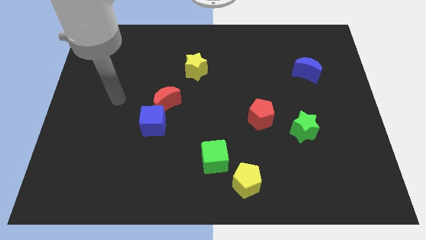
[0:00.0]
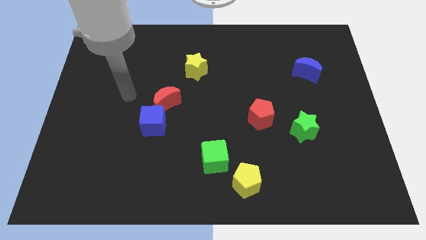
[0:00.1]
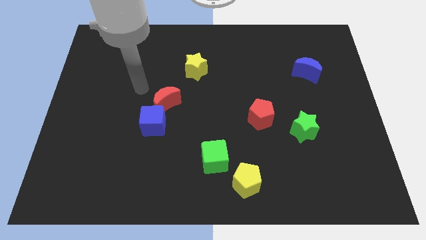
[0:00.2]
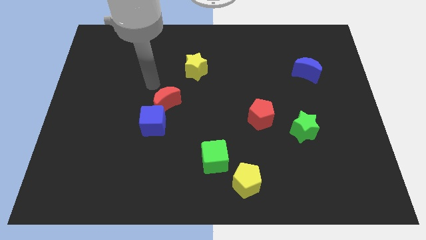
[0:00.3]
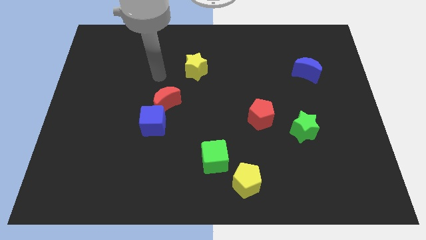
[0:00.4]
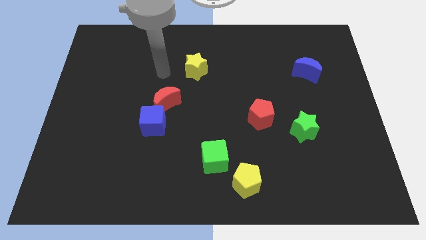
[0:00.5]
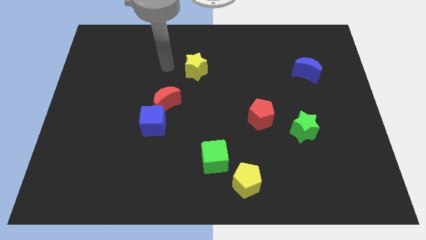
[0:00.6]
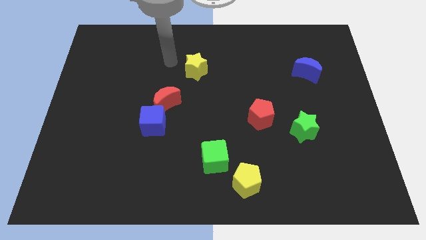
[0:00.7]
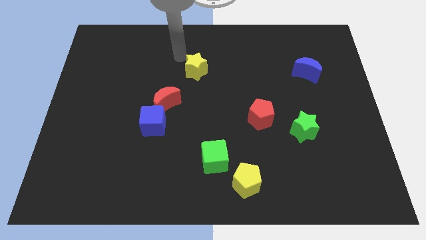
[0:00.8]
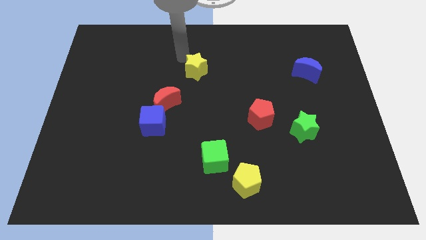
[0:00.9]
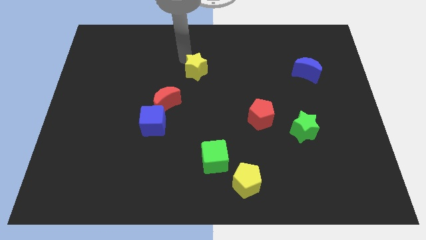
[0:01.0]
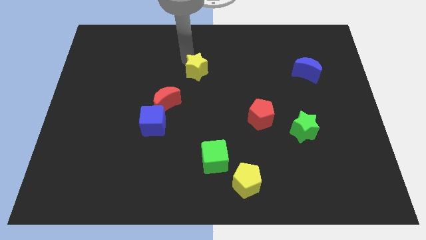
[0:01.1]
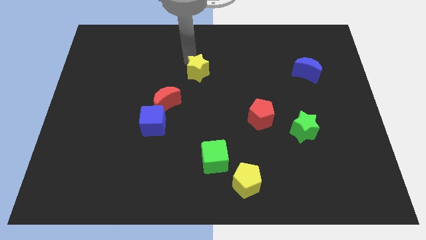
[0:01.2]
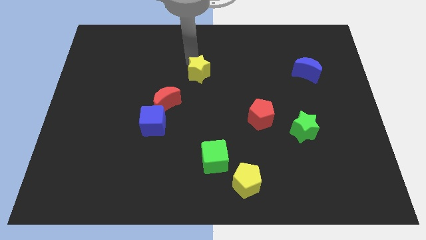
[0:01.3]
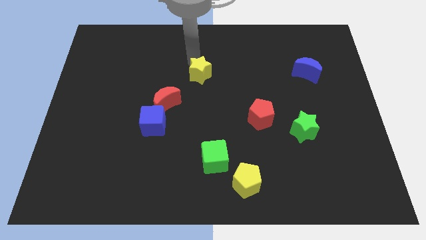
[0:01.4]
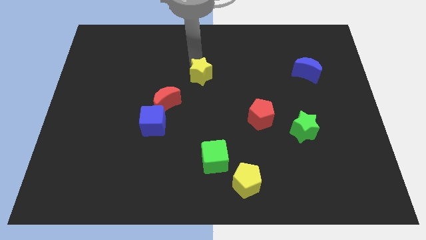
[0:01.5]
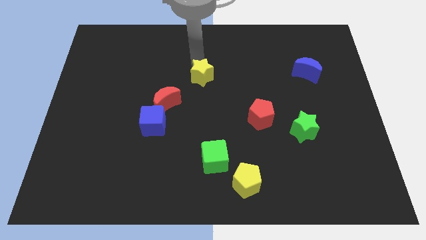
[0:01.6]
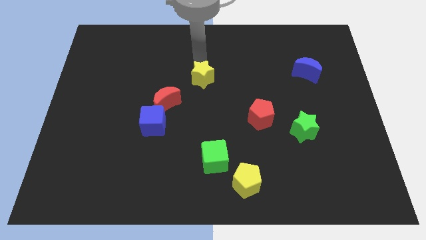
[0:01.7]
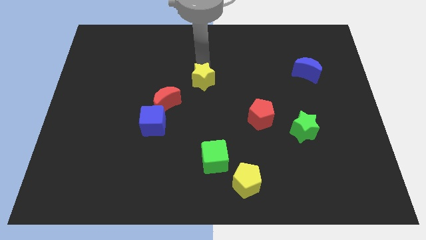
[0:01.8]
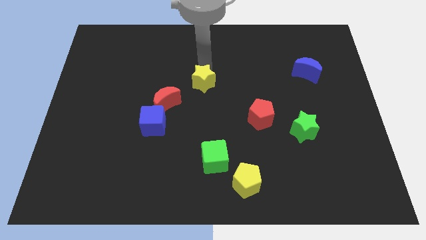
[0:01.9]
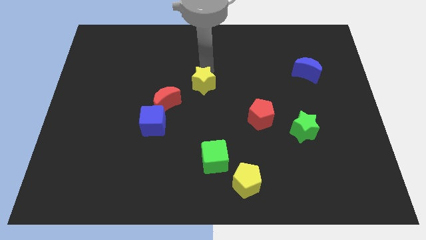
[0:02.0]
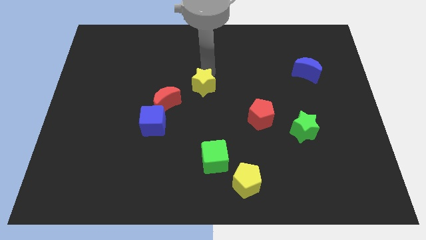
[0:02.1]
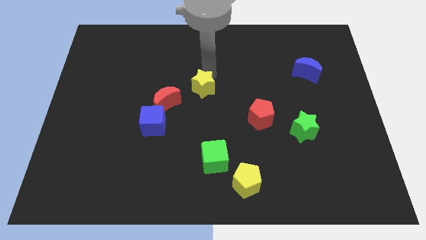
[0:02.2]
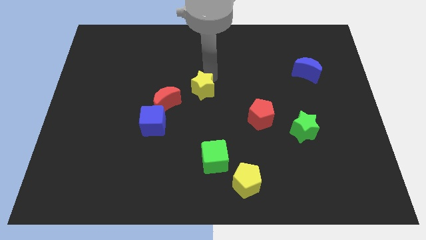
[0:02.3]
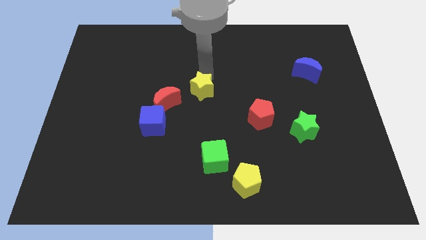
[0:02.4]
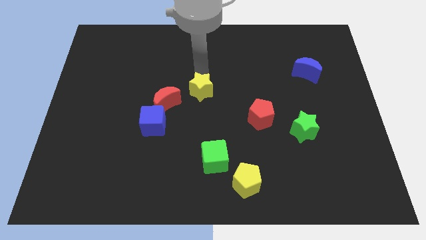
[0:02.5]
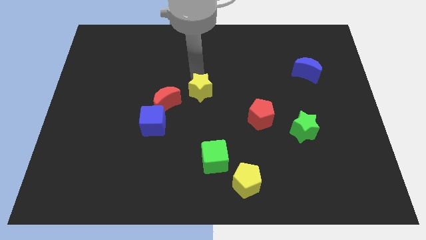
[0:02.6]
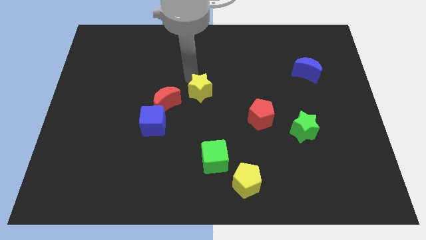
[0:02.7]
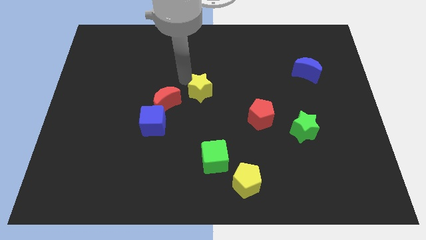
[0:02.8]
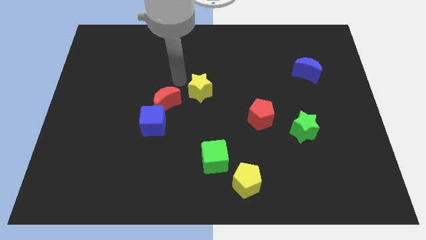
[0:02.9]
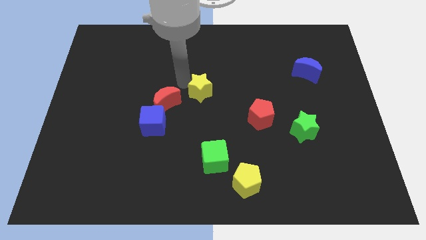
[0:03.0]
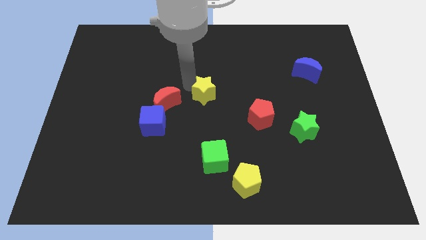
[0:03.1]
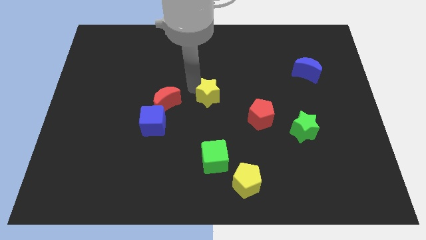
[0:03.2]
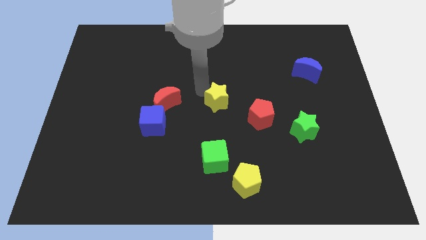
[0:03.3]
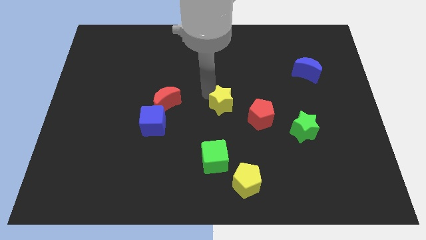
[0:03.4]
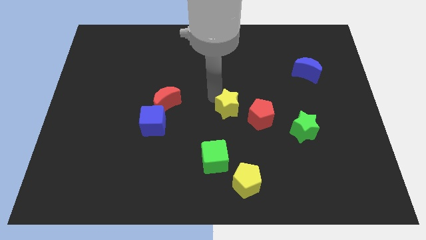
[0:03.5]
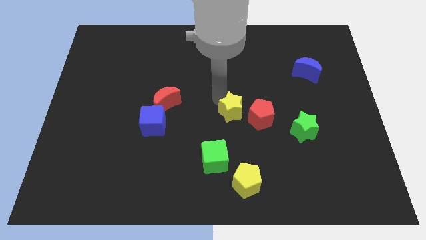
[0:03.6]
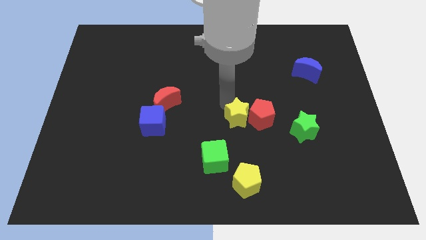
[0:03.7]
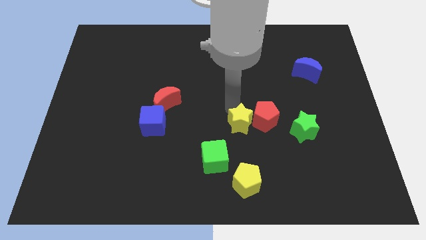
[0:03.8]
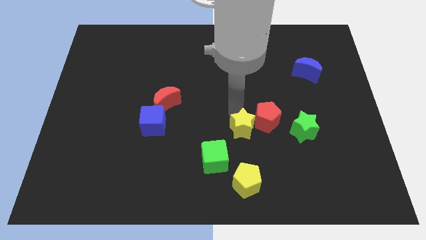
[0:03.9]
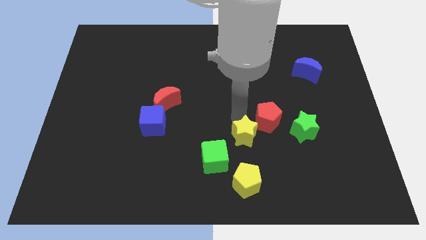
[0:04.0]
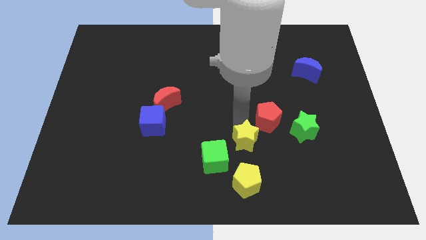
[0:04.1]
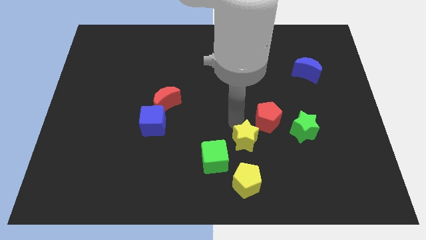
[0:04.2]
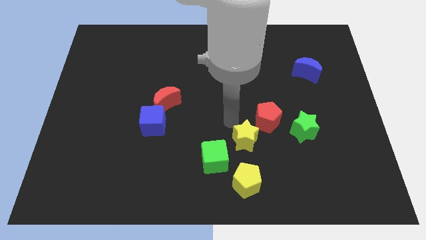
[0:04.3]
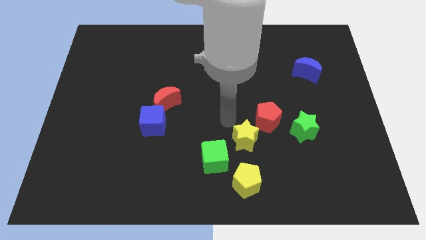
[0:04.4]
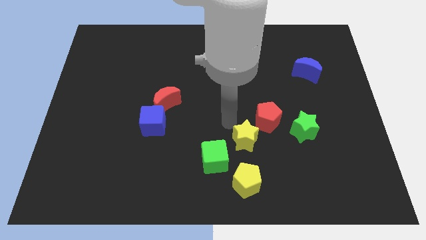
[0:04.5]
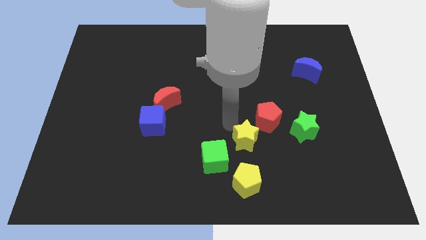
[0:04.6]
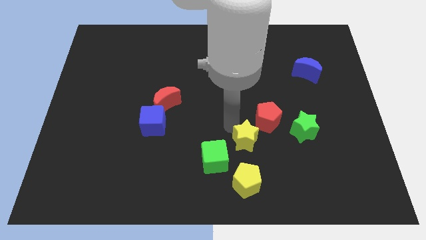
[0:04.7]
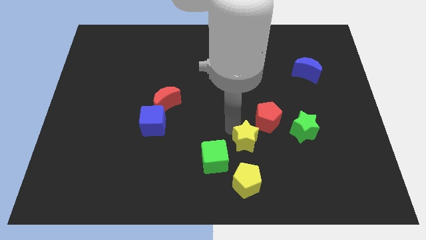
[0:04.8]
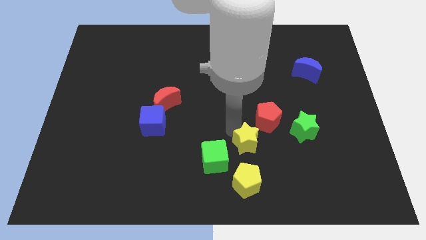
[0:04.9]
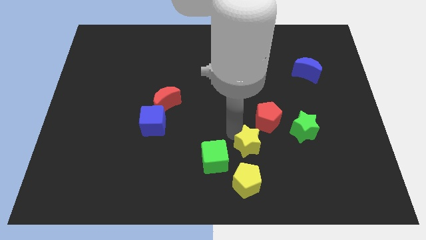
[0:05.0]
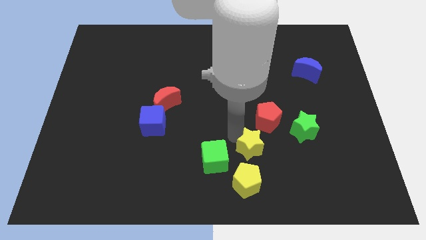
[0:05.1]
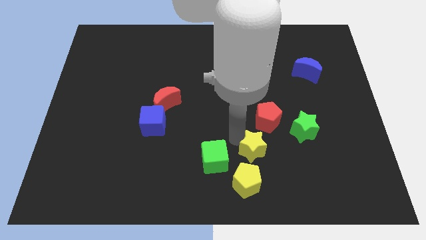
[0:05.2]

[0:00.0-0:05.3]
put the yellow star to the top right of the yellow pentagon

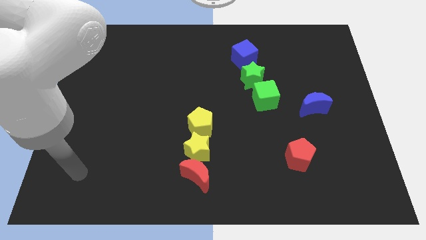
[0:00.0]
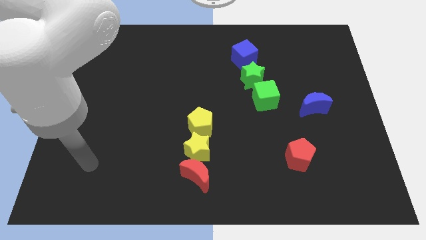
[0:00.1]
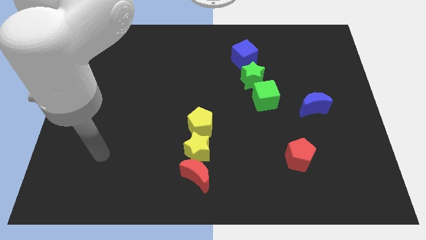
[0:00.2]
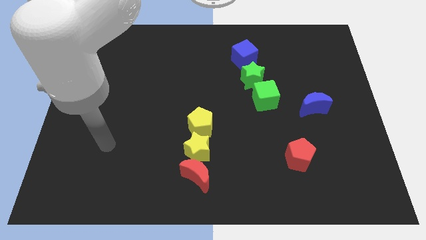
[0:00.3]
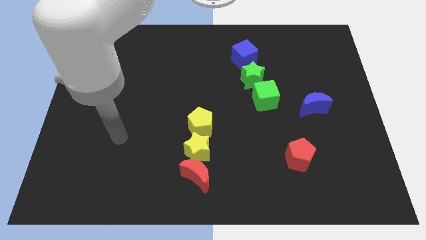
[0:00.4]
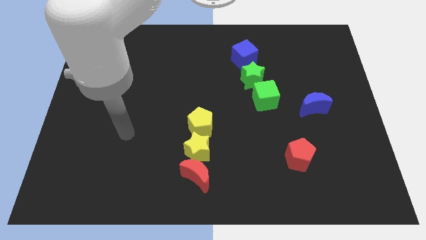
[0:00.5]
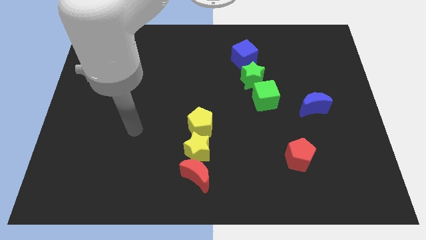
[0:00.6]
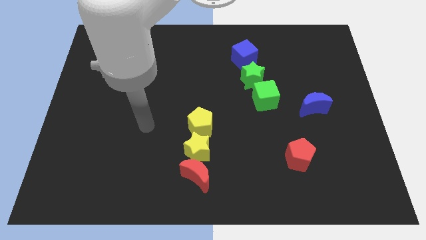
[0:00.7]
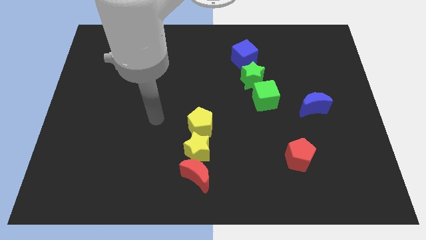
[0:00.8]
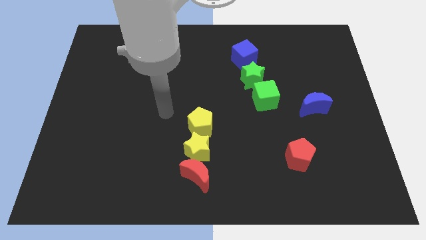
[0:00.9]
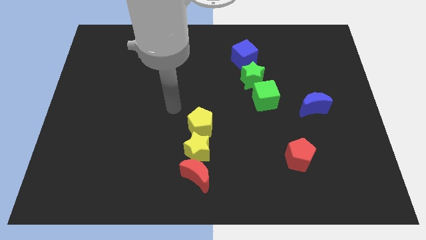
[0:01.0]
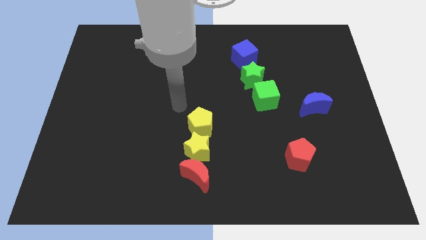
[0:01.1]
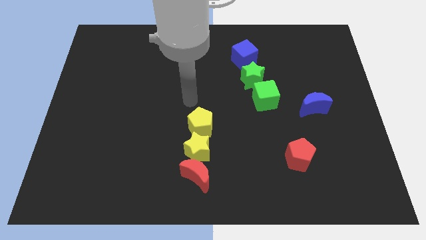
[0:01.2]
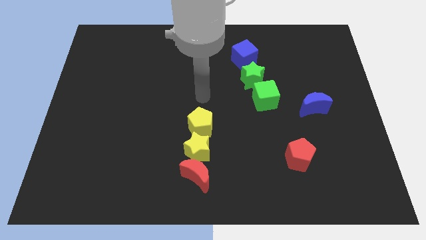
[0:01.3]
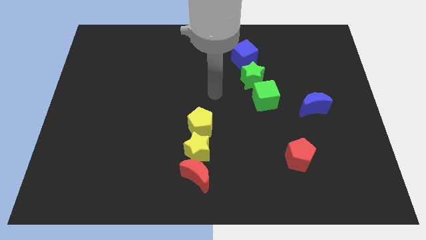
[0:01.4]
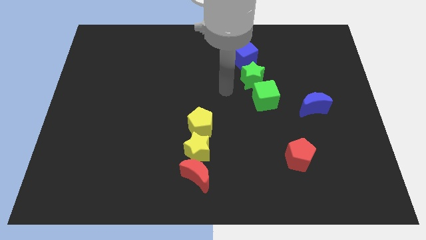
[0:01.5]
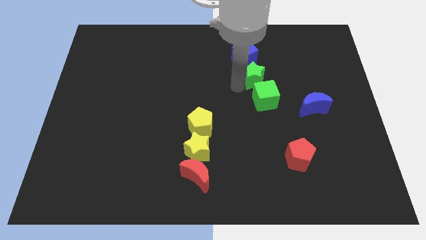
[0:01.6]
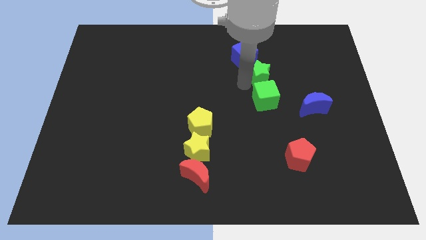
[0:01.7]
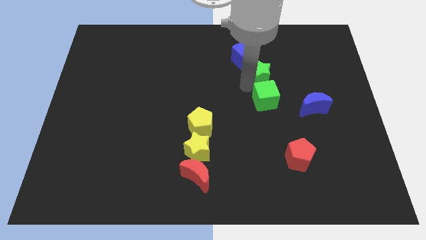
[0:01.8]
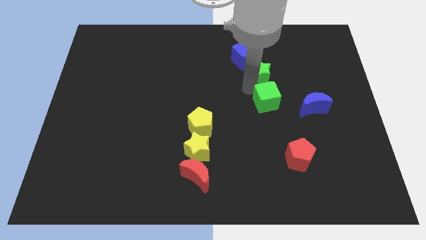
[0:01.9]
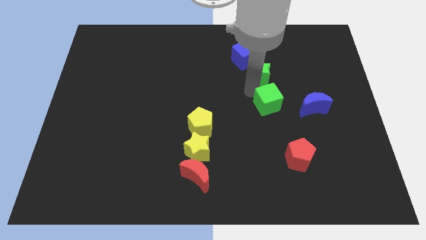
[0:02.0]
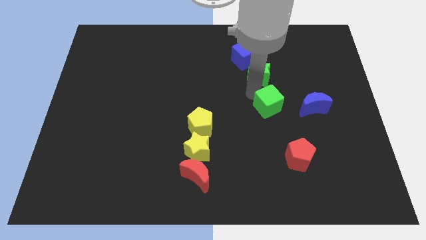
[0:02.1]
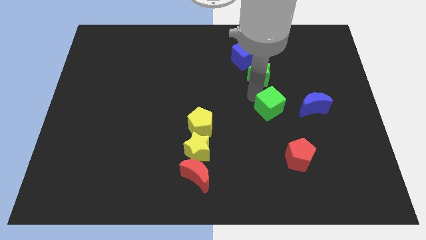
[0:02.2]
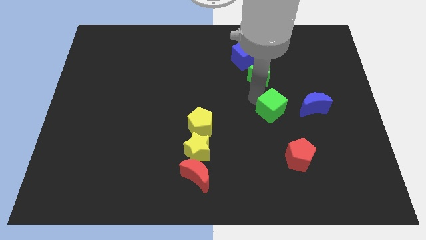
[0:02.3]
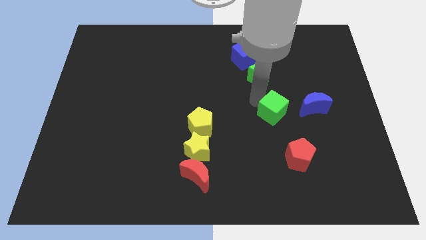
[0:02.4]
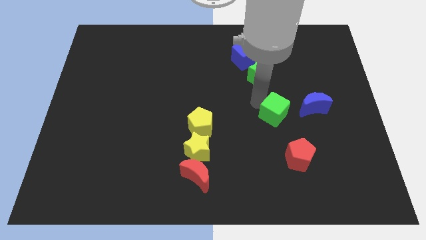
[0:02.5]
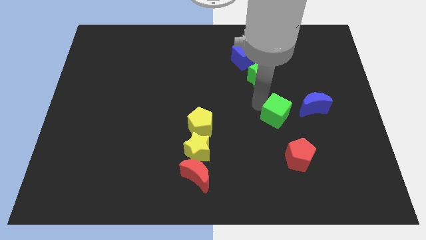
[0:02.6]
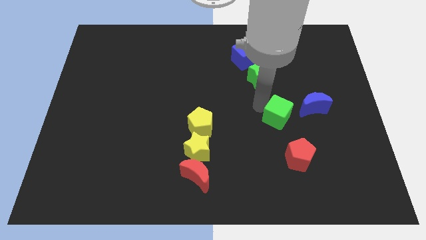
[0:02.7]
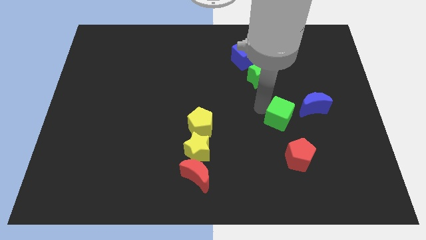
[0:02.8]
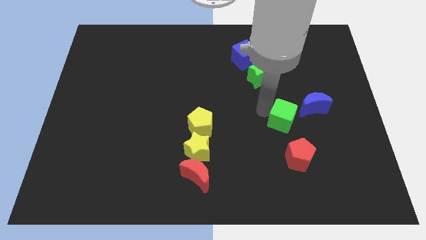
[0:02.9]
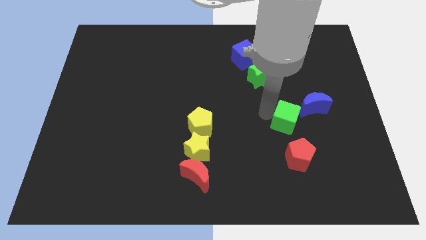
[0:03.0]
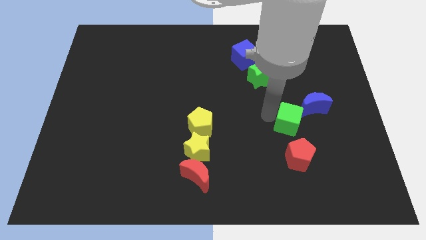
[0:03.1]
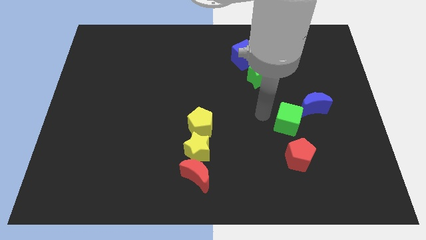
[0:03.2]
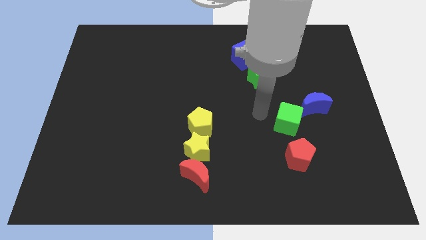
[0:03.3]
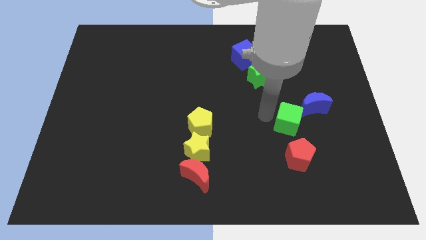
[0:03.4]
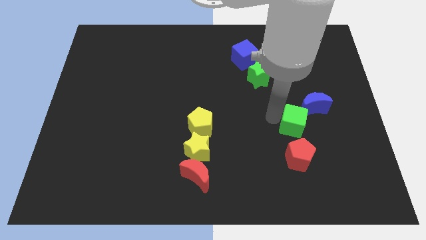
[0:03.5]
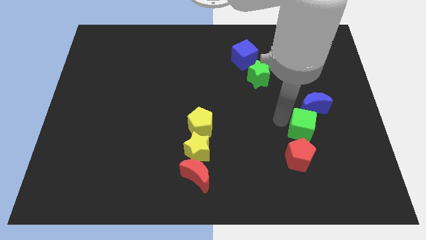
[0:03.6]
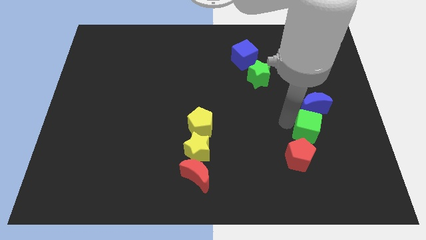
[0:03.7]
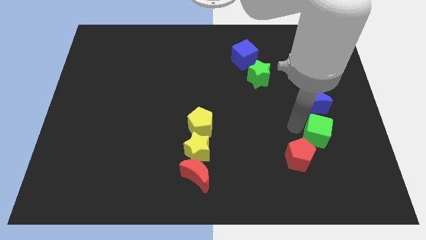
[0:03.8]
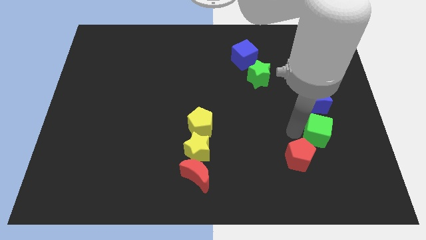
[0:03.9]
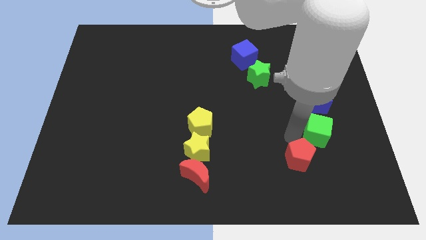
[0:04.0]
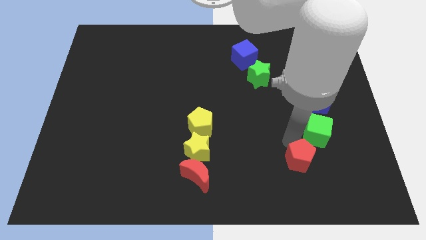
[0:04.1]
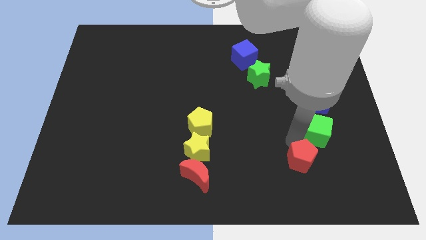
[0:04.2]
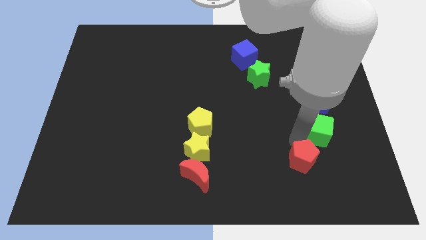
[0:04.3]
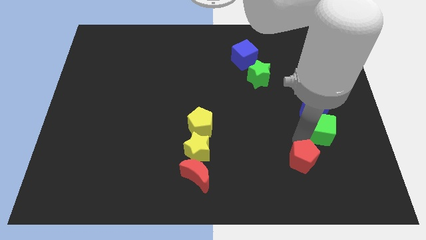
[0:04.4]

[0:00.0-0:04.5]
push the green cube diagonally down and to the right of the blue moon
